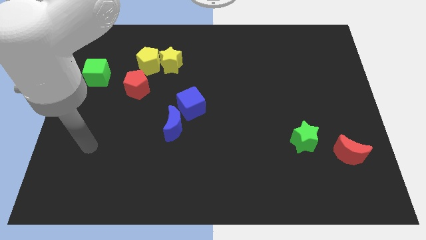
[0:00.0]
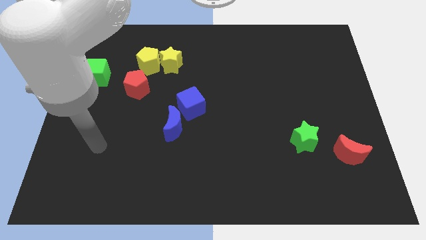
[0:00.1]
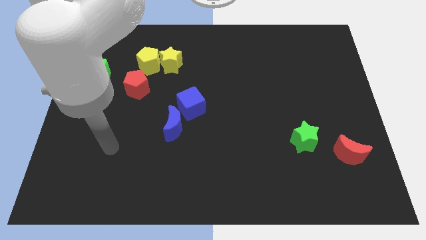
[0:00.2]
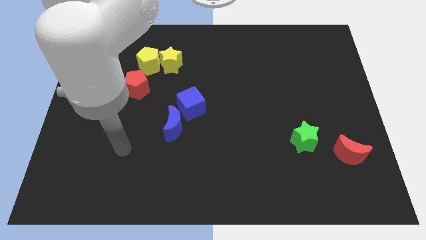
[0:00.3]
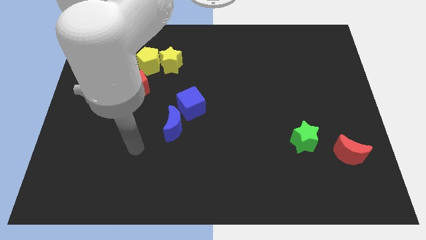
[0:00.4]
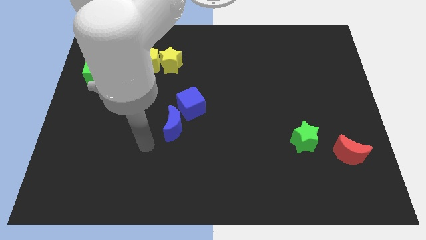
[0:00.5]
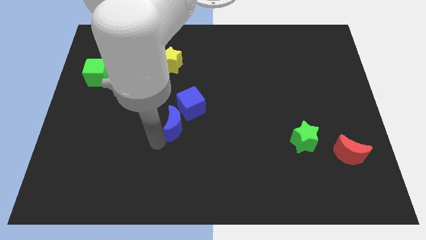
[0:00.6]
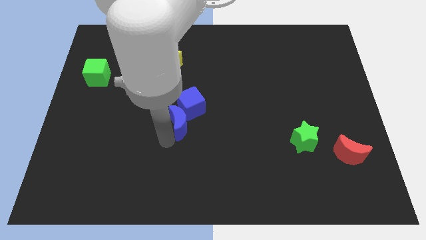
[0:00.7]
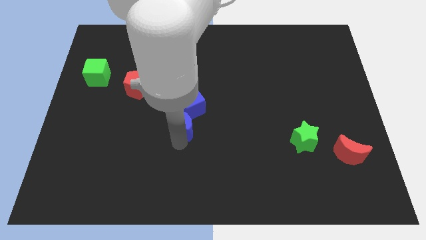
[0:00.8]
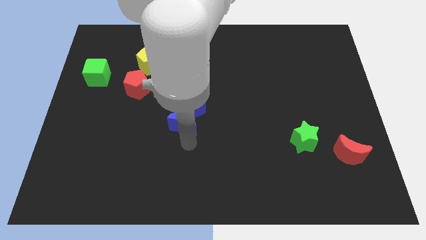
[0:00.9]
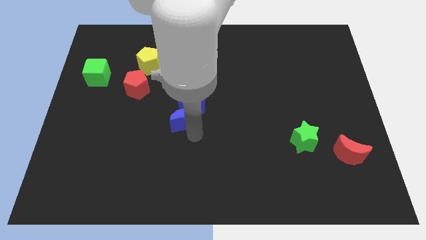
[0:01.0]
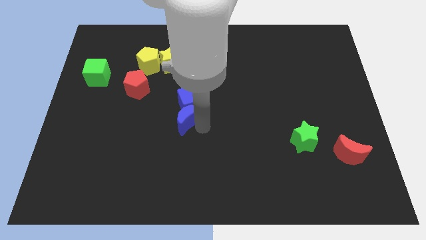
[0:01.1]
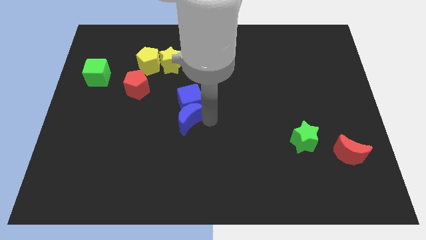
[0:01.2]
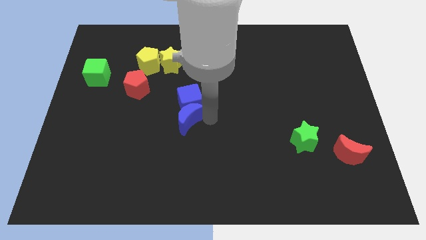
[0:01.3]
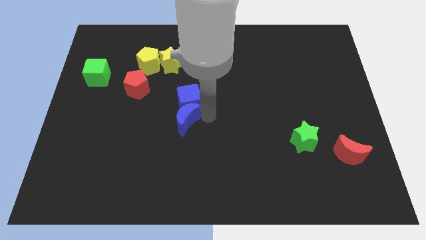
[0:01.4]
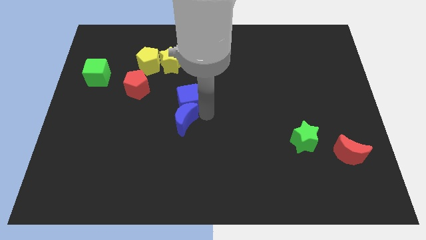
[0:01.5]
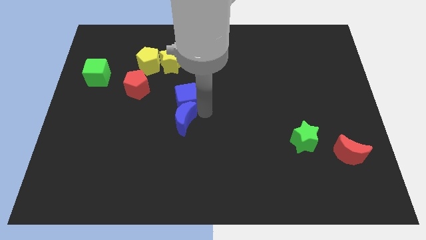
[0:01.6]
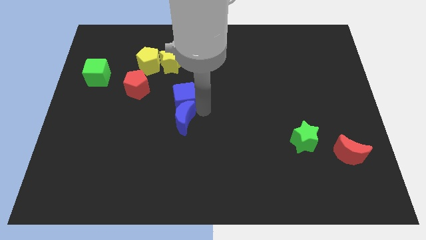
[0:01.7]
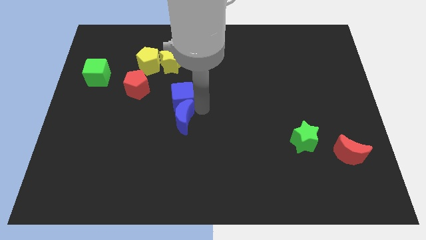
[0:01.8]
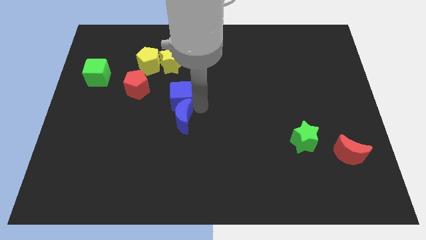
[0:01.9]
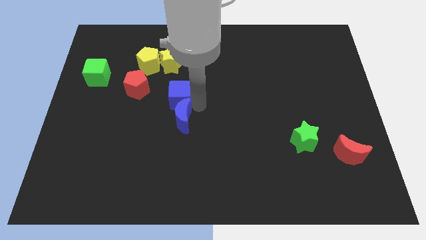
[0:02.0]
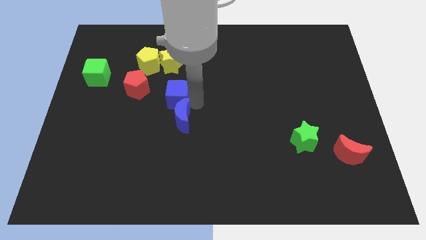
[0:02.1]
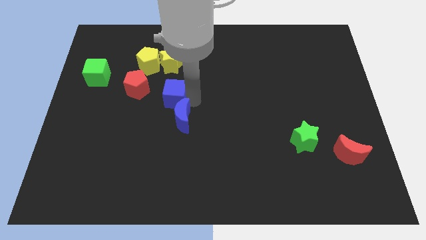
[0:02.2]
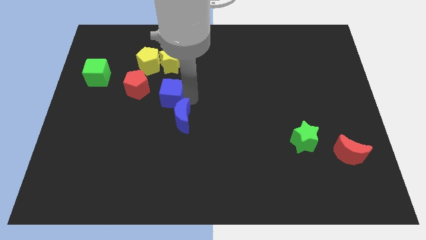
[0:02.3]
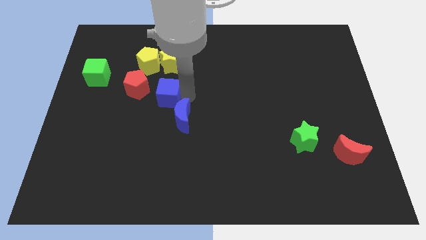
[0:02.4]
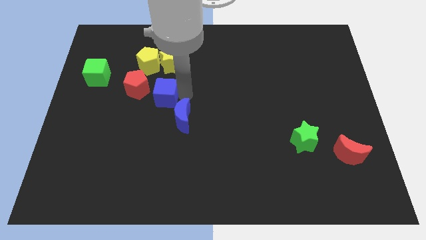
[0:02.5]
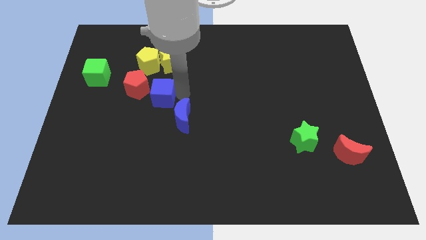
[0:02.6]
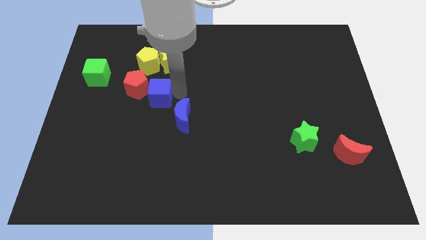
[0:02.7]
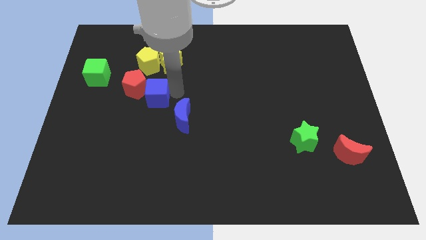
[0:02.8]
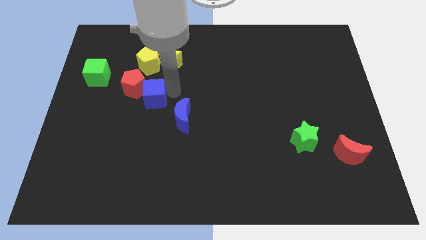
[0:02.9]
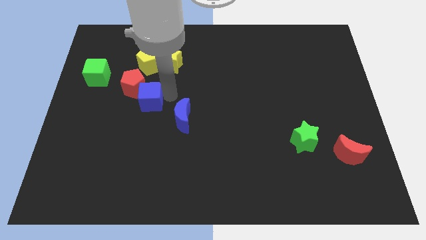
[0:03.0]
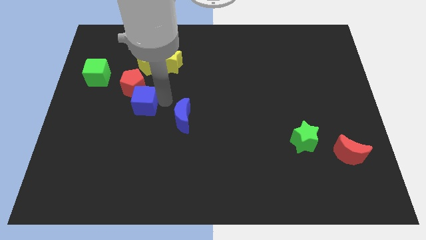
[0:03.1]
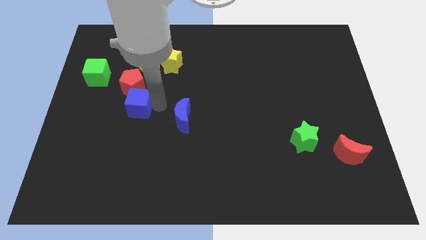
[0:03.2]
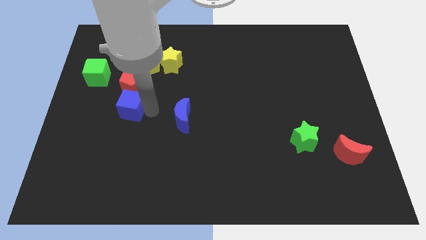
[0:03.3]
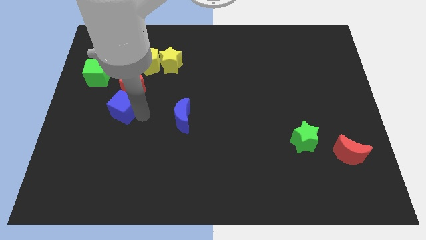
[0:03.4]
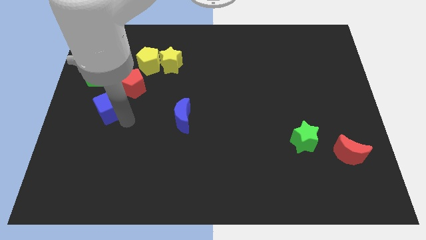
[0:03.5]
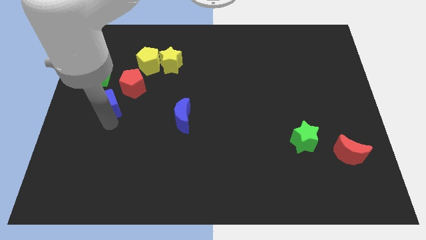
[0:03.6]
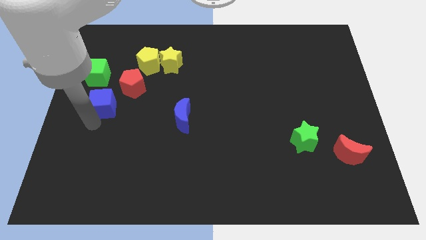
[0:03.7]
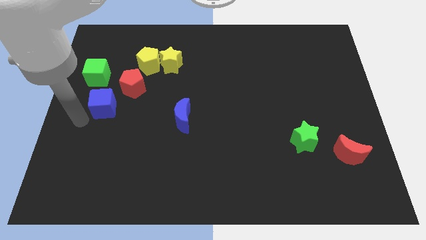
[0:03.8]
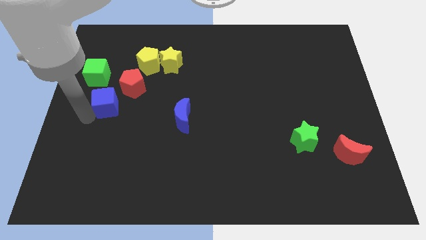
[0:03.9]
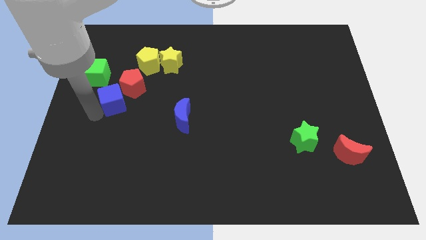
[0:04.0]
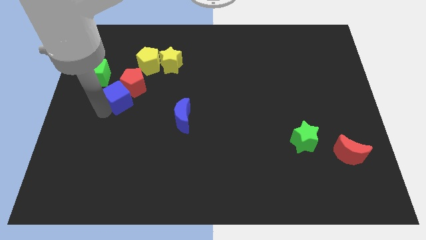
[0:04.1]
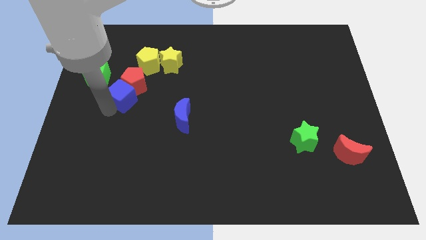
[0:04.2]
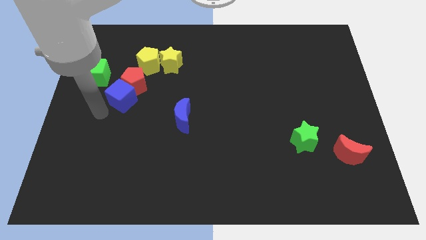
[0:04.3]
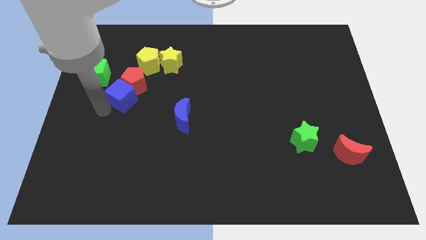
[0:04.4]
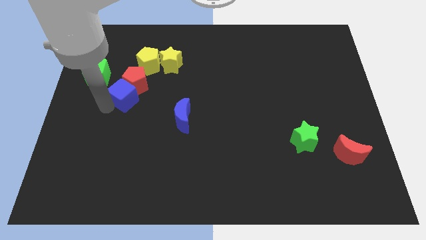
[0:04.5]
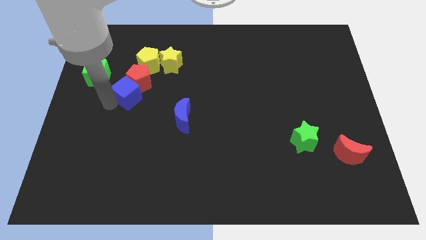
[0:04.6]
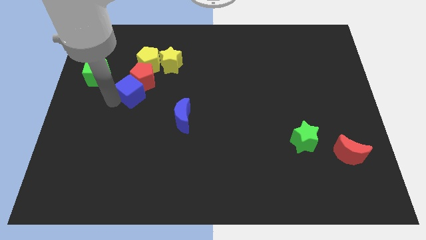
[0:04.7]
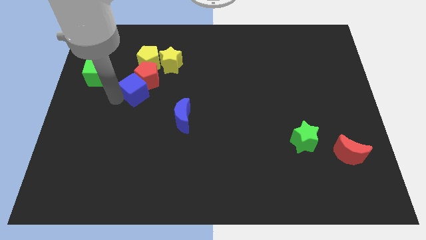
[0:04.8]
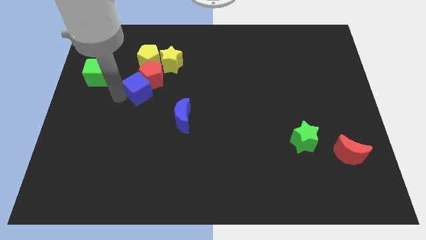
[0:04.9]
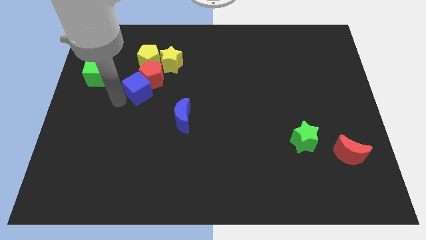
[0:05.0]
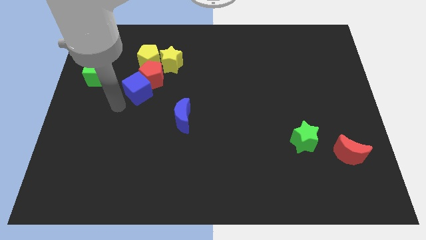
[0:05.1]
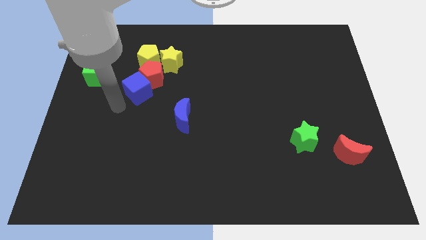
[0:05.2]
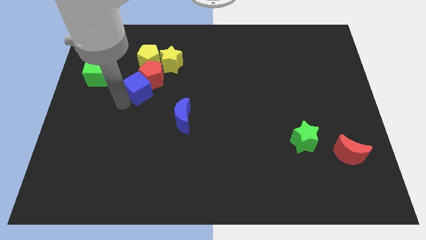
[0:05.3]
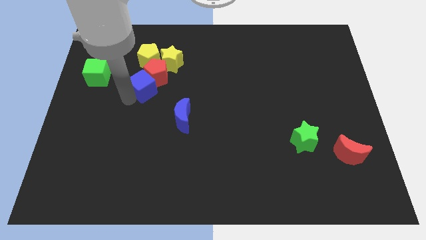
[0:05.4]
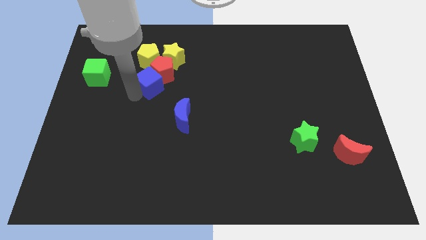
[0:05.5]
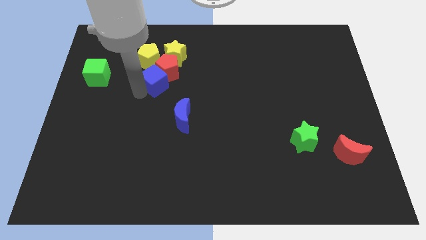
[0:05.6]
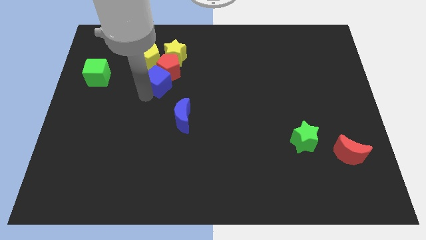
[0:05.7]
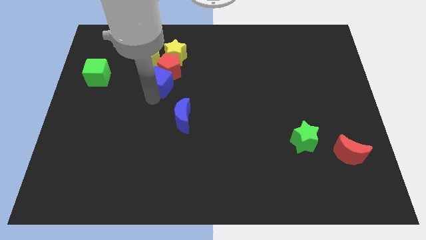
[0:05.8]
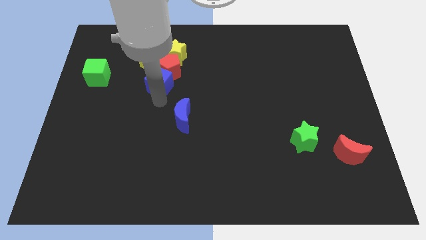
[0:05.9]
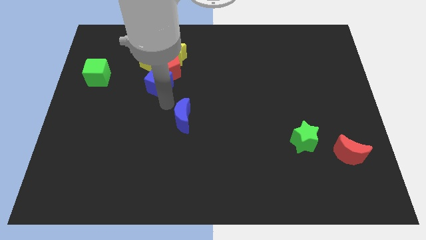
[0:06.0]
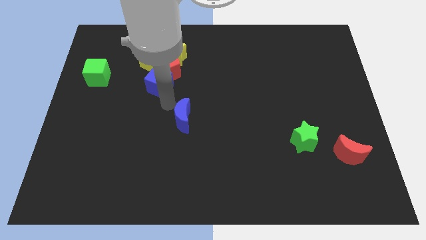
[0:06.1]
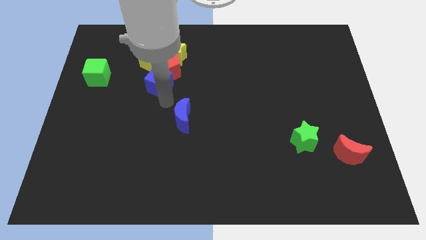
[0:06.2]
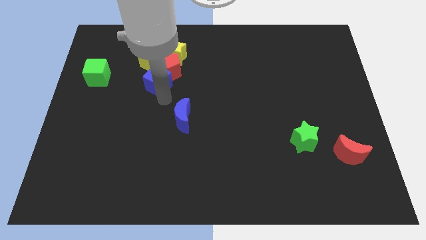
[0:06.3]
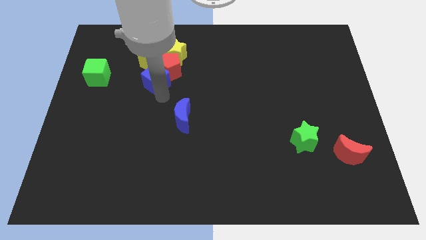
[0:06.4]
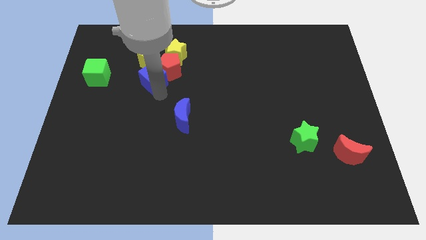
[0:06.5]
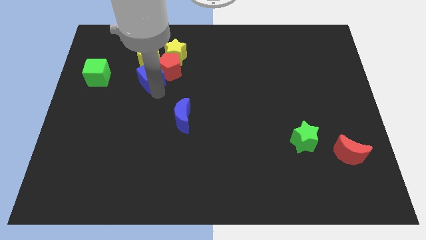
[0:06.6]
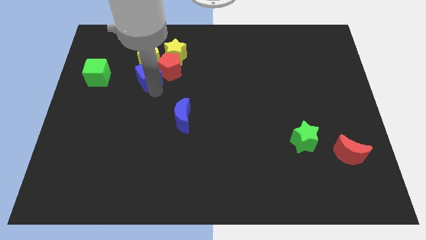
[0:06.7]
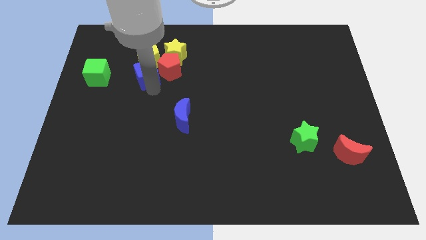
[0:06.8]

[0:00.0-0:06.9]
push the blue cube to the yellow pentagon

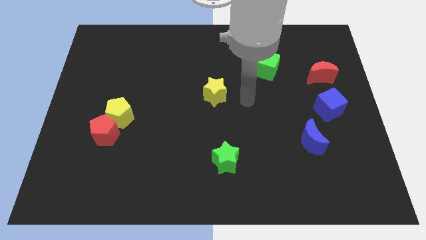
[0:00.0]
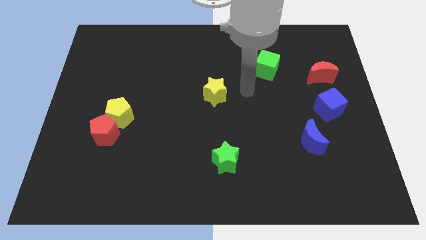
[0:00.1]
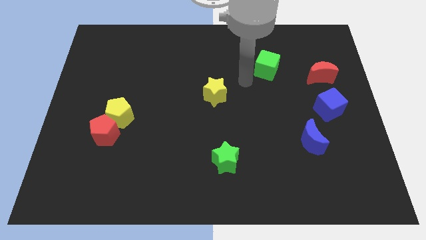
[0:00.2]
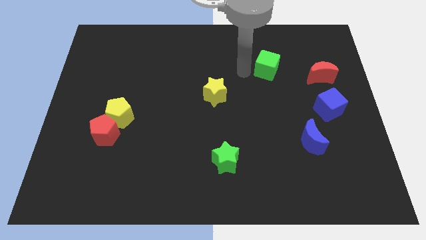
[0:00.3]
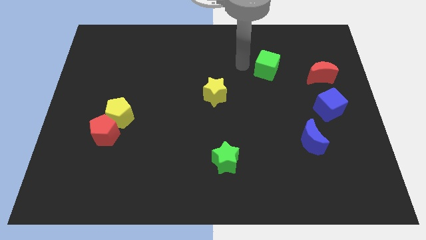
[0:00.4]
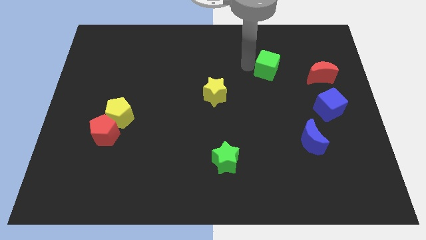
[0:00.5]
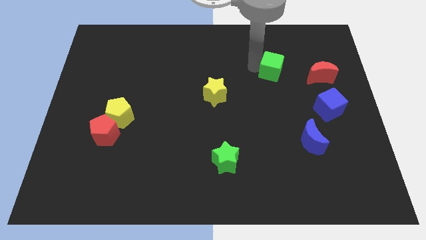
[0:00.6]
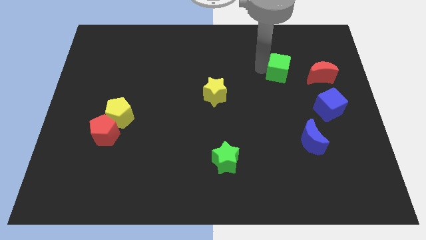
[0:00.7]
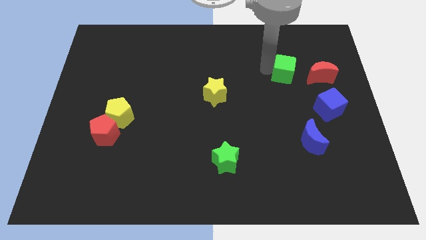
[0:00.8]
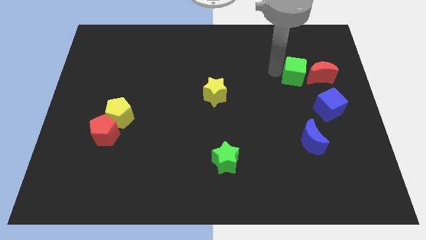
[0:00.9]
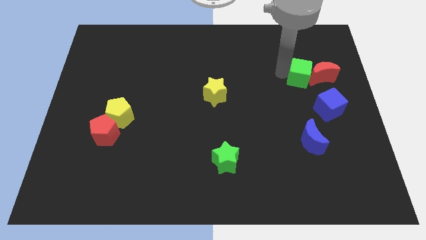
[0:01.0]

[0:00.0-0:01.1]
put the green cube to the red moon
